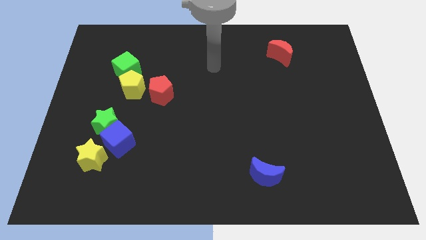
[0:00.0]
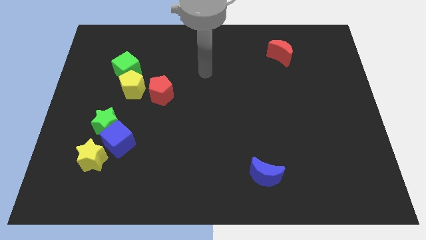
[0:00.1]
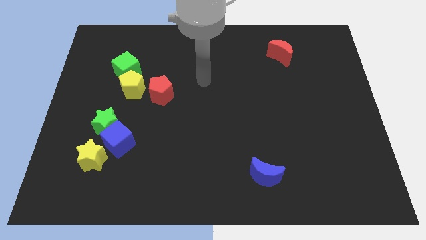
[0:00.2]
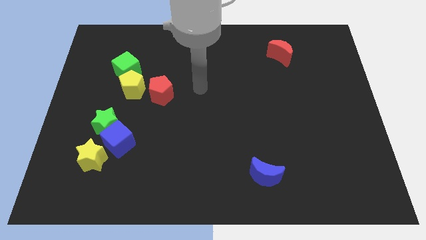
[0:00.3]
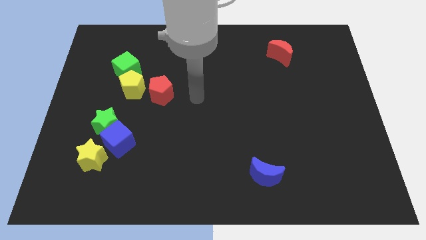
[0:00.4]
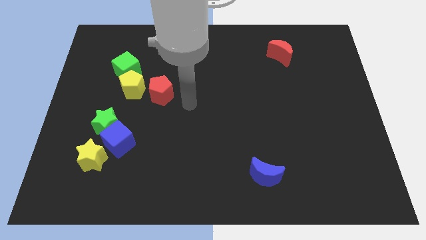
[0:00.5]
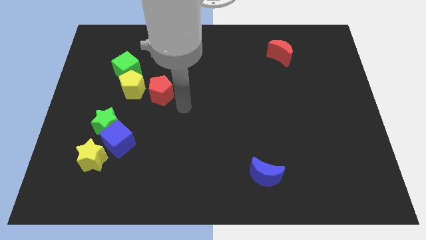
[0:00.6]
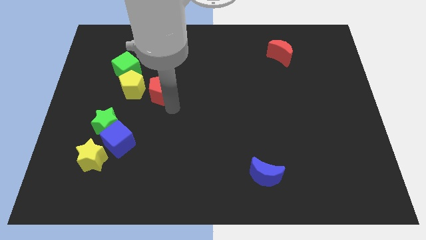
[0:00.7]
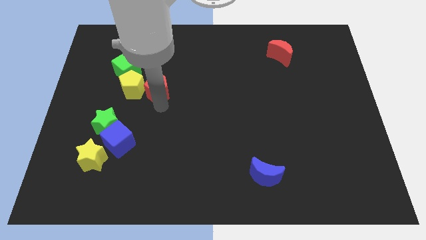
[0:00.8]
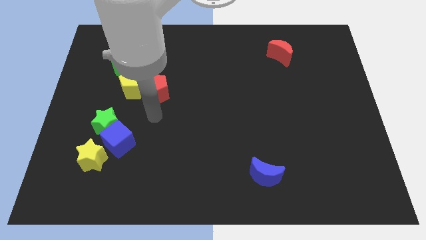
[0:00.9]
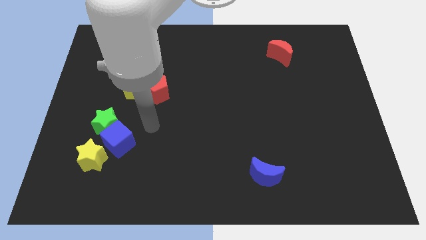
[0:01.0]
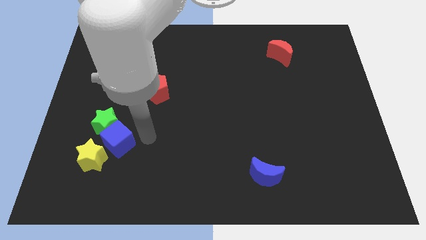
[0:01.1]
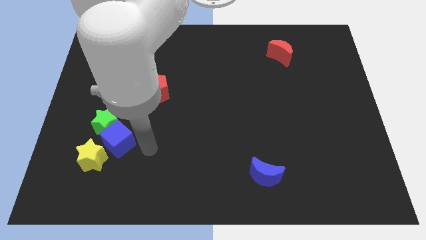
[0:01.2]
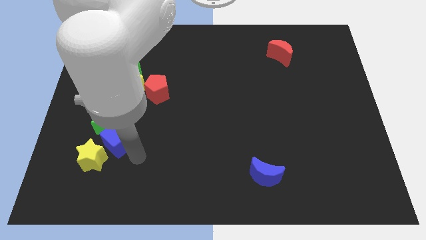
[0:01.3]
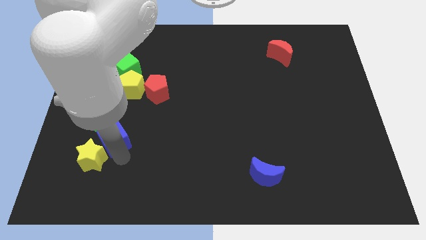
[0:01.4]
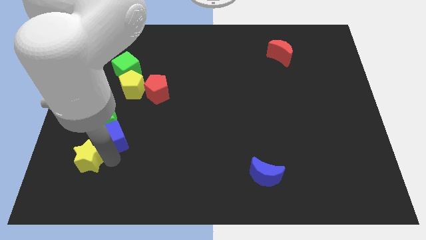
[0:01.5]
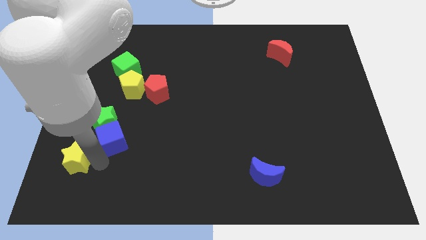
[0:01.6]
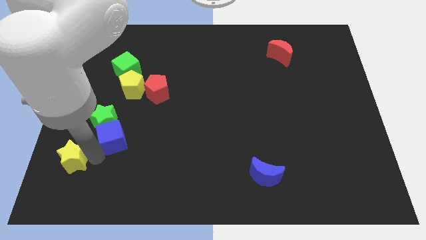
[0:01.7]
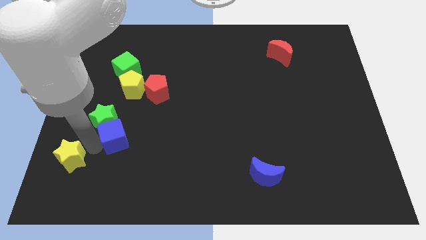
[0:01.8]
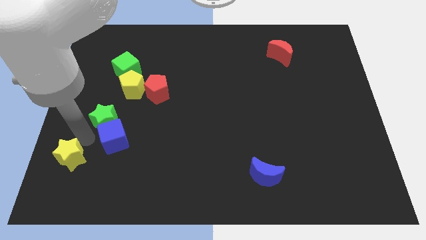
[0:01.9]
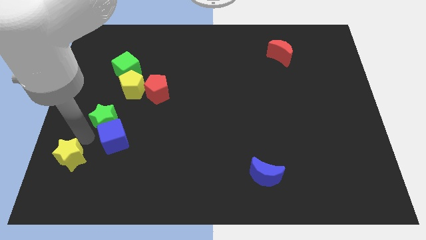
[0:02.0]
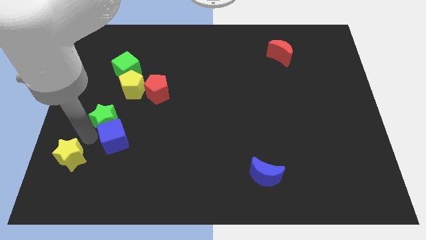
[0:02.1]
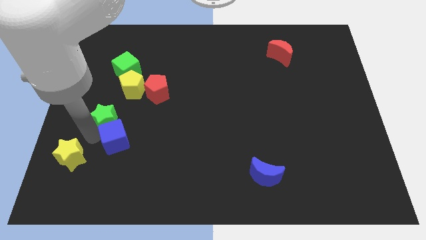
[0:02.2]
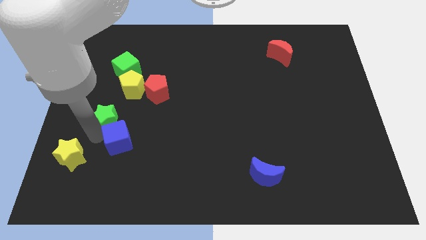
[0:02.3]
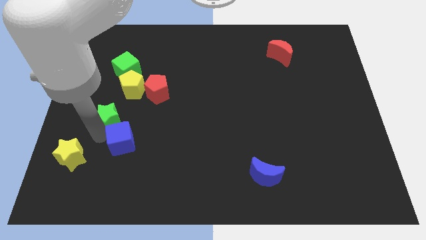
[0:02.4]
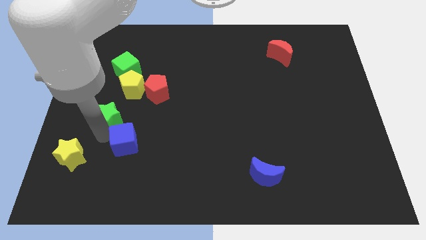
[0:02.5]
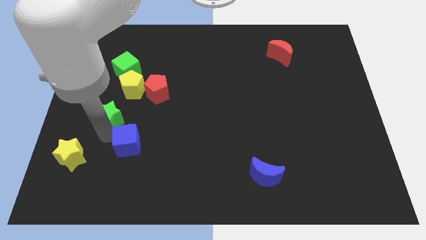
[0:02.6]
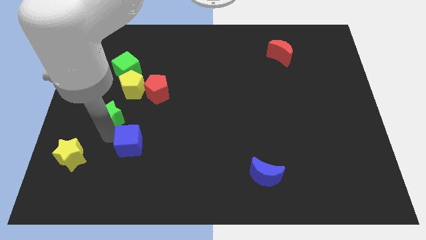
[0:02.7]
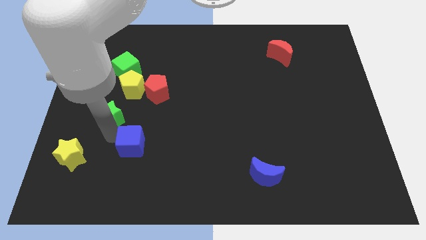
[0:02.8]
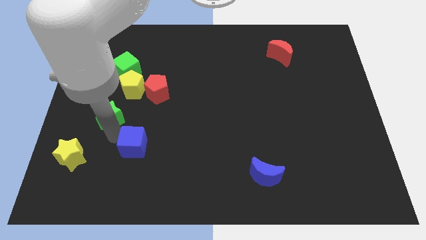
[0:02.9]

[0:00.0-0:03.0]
move the blue cube away from the green star and yellow star

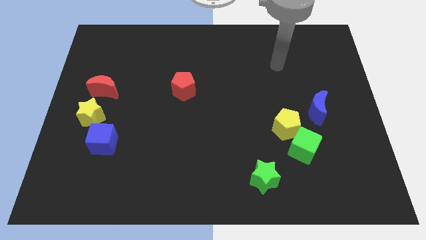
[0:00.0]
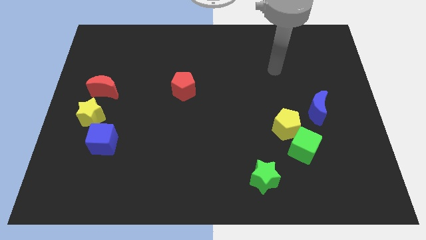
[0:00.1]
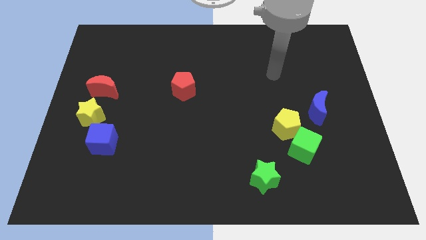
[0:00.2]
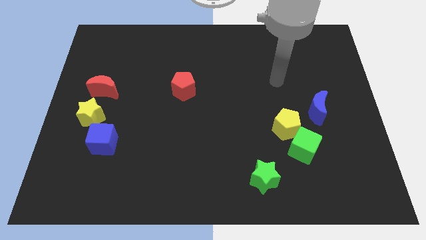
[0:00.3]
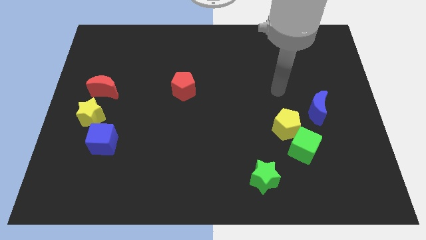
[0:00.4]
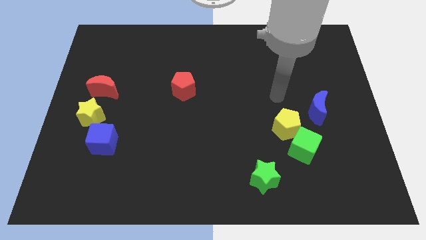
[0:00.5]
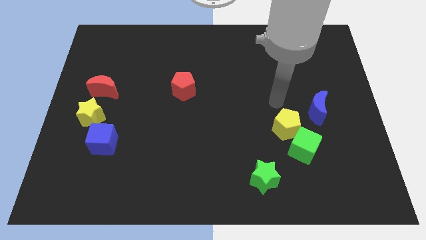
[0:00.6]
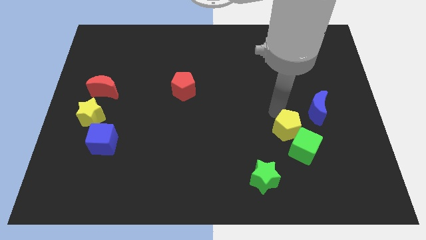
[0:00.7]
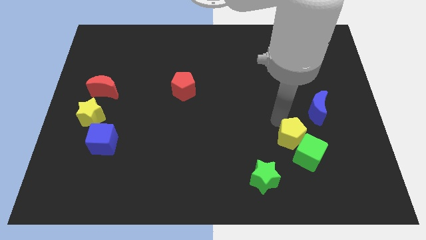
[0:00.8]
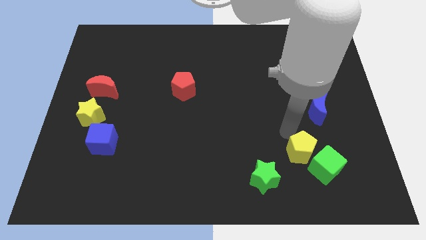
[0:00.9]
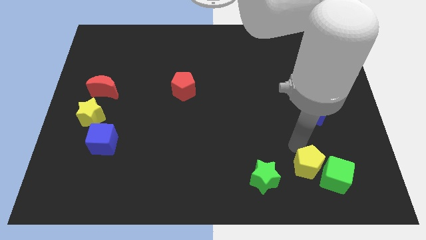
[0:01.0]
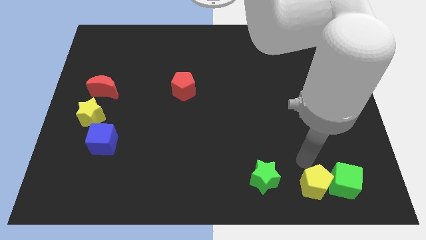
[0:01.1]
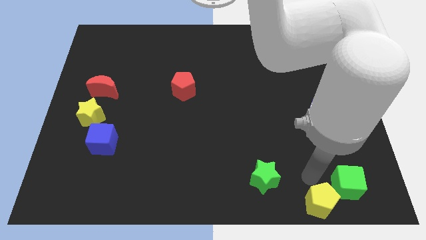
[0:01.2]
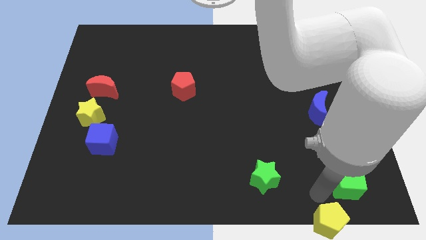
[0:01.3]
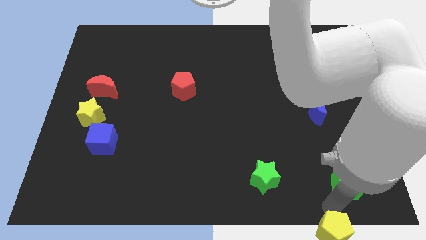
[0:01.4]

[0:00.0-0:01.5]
separate the green cube from the yellow pentagon

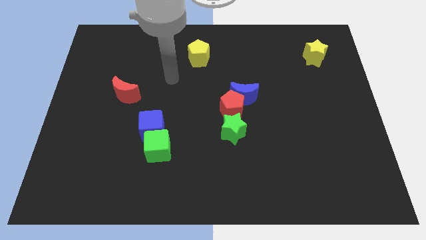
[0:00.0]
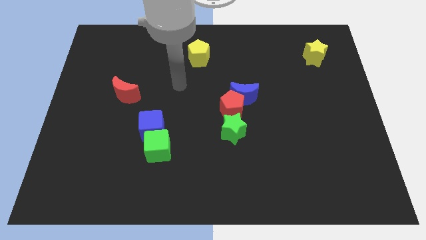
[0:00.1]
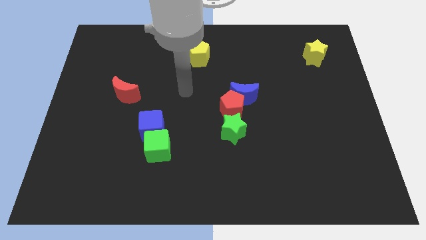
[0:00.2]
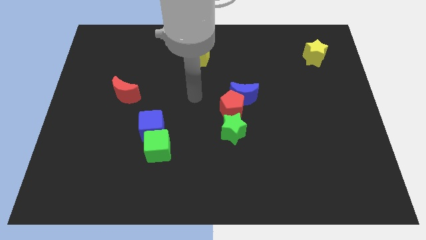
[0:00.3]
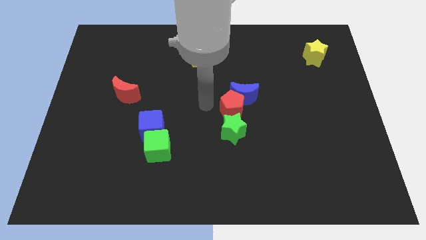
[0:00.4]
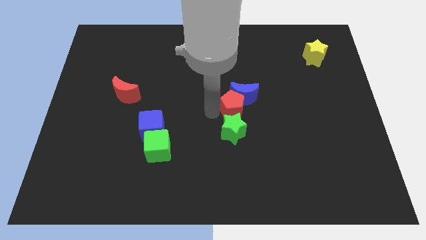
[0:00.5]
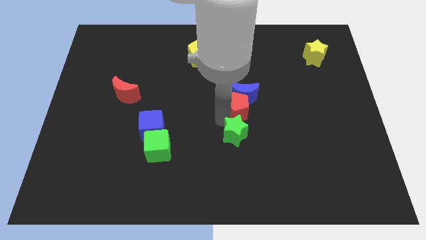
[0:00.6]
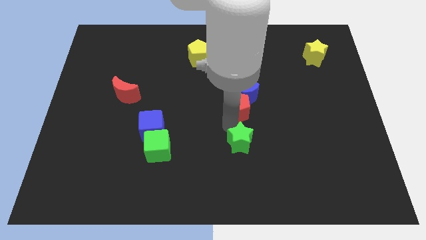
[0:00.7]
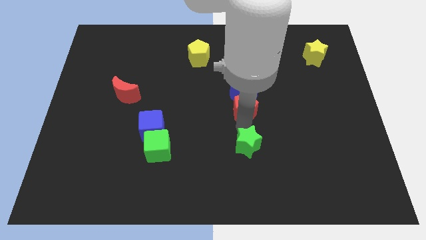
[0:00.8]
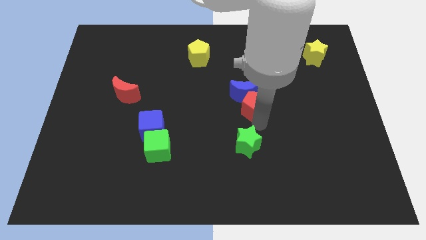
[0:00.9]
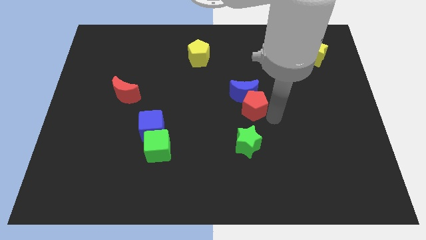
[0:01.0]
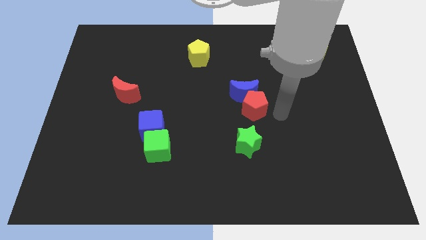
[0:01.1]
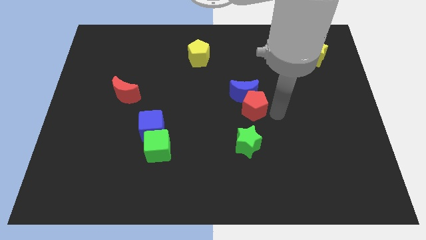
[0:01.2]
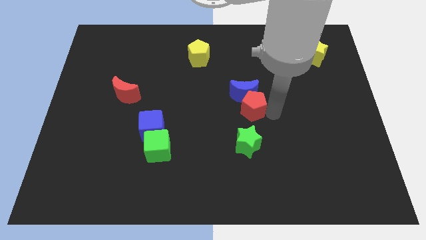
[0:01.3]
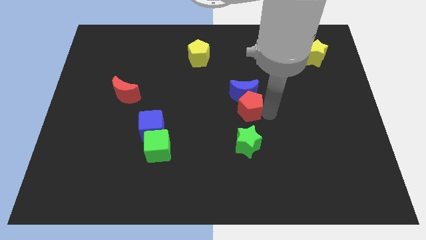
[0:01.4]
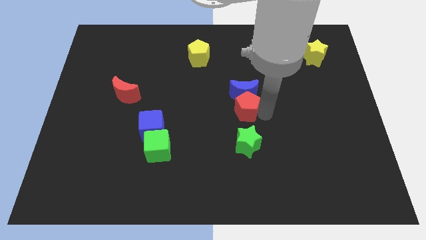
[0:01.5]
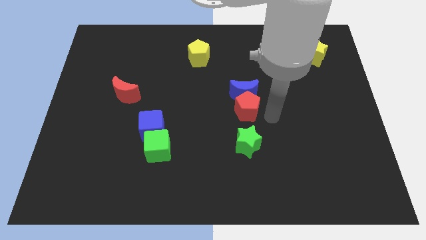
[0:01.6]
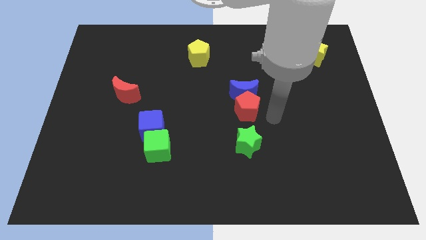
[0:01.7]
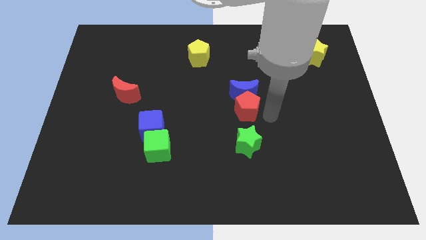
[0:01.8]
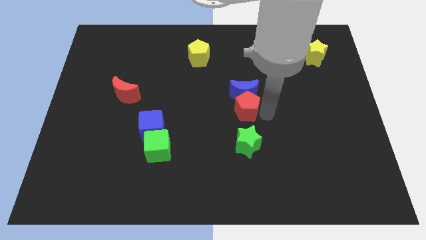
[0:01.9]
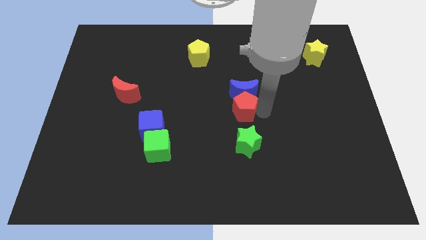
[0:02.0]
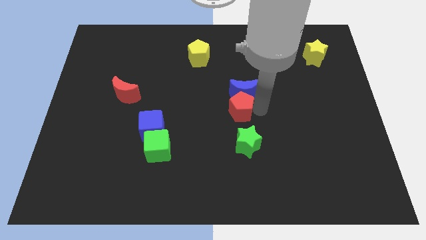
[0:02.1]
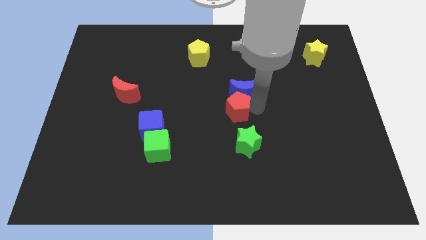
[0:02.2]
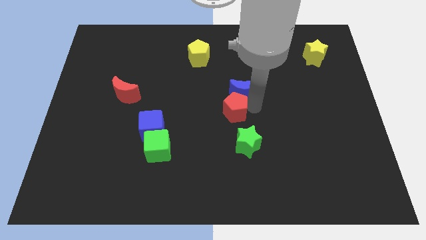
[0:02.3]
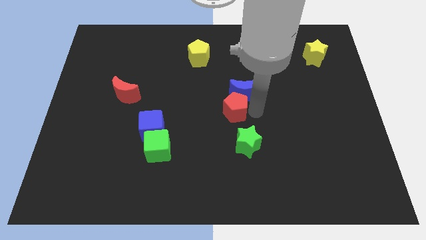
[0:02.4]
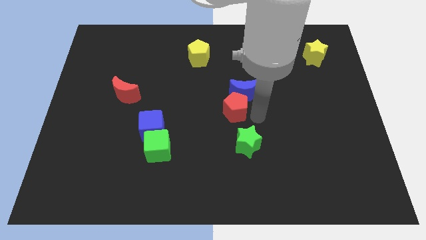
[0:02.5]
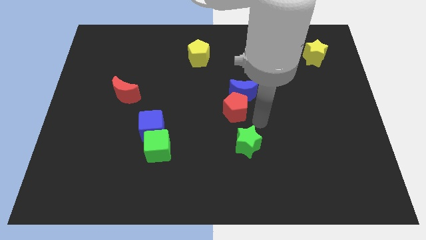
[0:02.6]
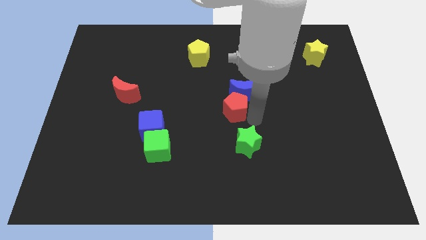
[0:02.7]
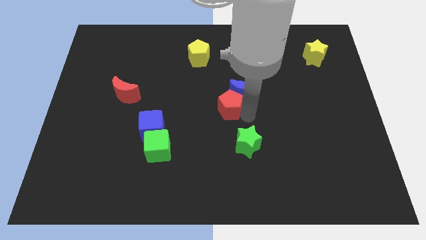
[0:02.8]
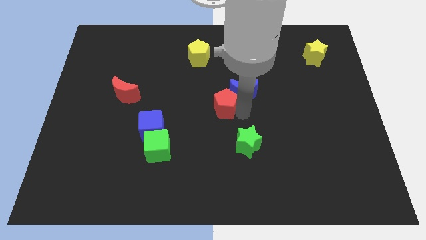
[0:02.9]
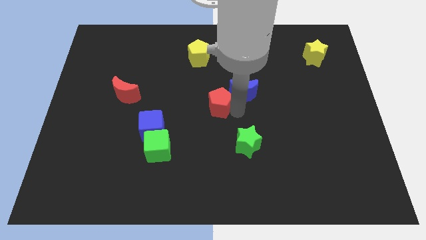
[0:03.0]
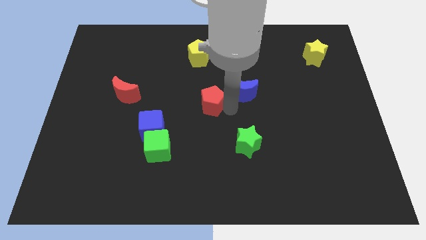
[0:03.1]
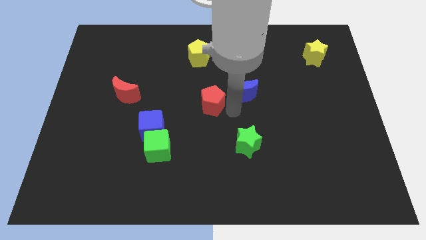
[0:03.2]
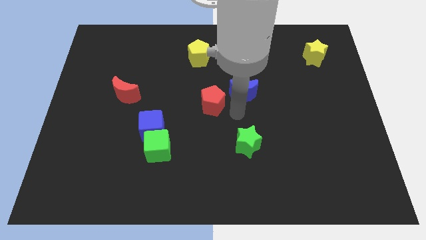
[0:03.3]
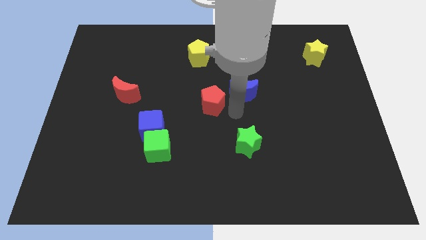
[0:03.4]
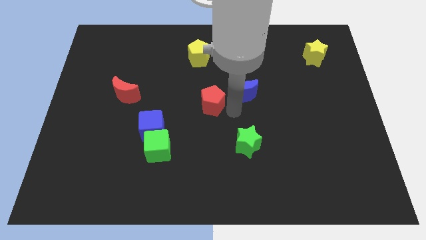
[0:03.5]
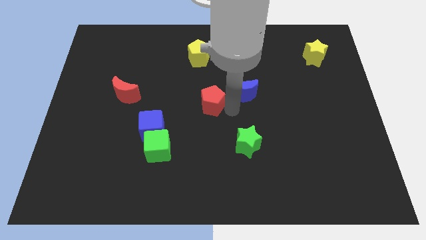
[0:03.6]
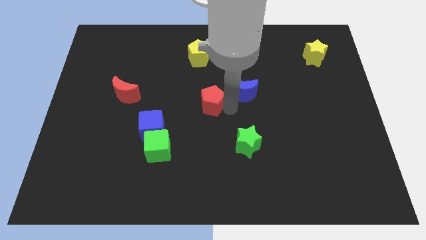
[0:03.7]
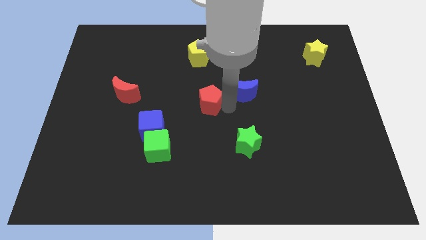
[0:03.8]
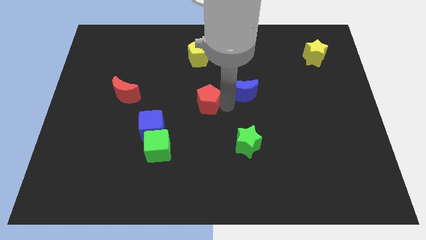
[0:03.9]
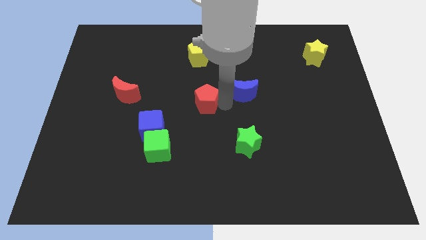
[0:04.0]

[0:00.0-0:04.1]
pull the red pentagon apart from the blue moon and green star

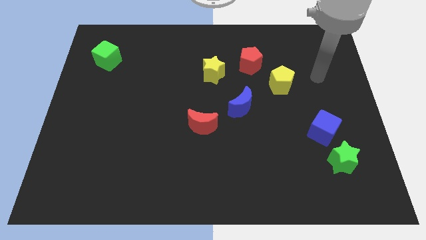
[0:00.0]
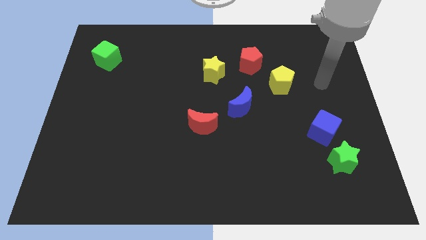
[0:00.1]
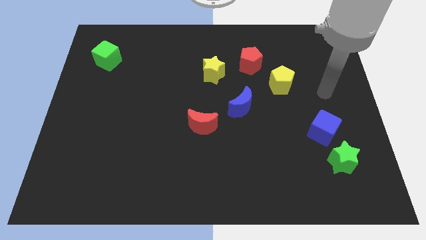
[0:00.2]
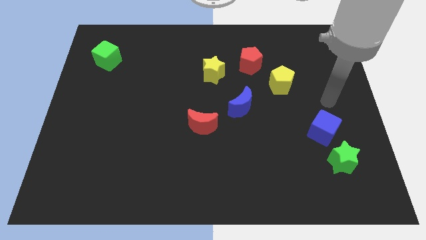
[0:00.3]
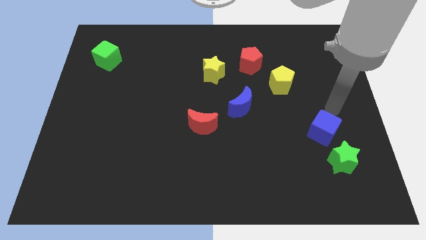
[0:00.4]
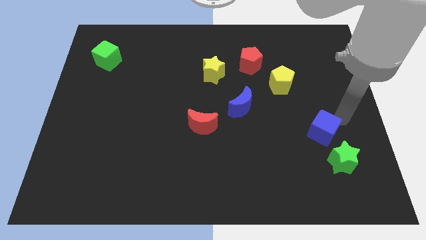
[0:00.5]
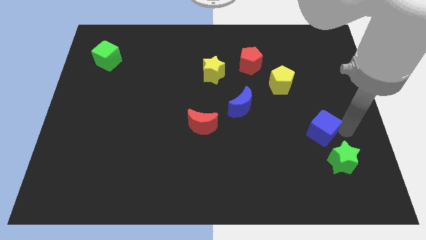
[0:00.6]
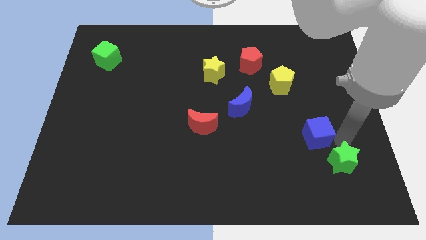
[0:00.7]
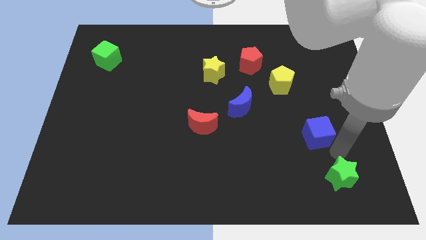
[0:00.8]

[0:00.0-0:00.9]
pull the blue cube apart from the green star
